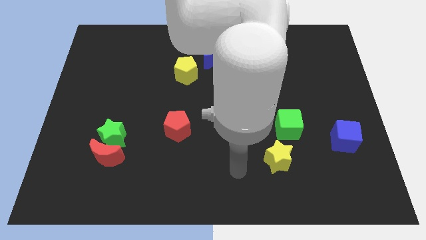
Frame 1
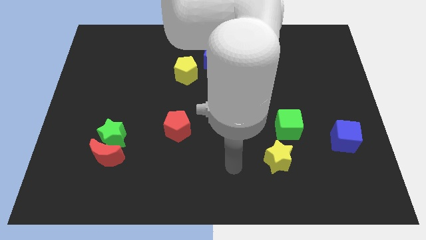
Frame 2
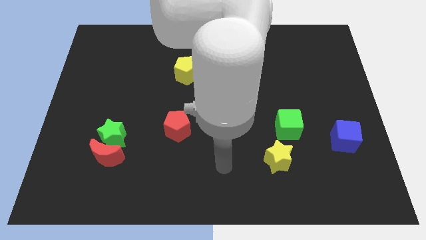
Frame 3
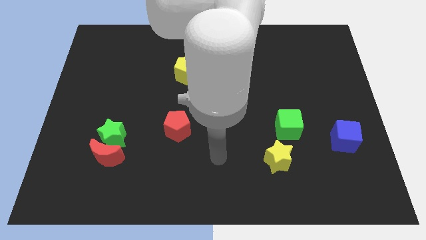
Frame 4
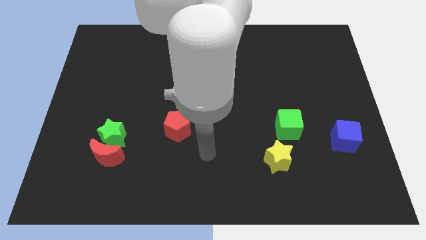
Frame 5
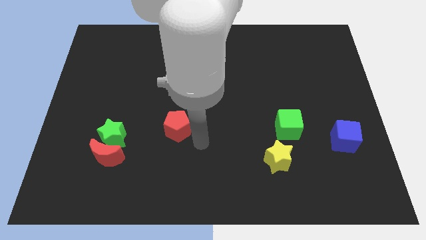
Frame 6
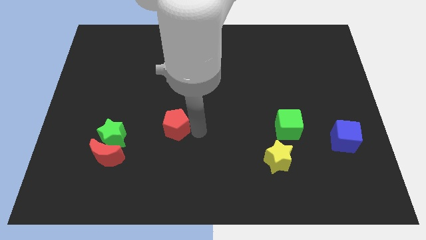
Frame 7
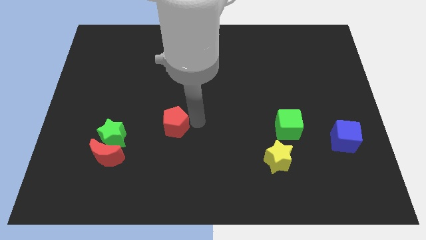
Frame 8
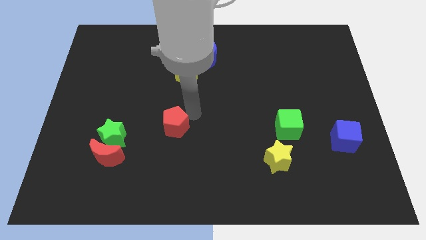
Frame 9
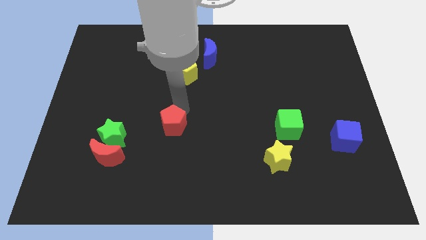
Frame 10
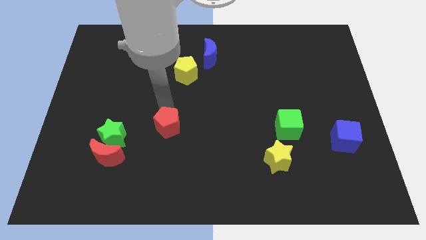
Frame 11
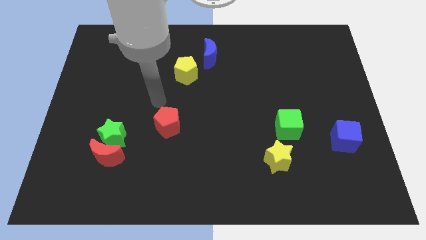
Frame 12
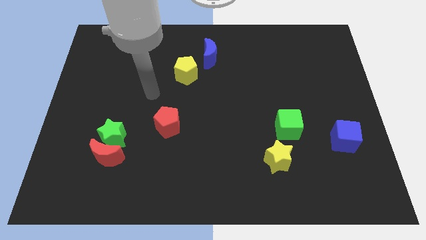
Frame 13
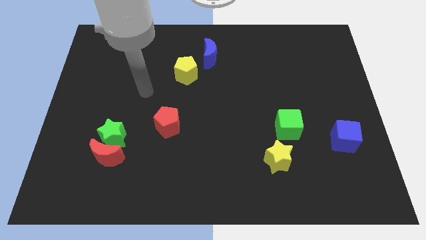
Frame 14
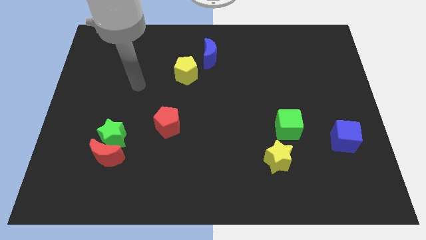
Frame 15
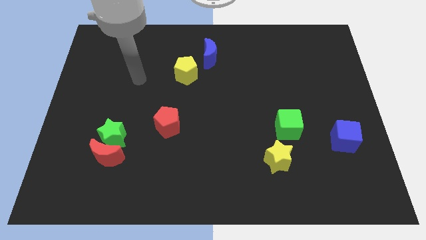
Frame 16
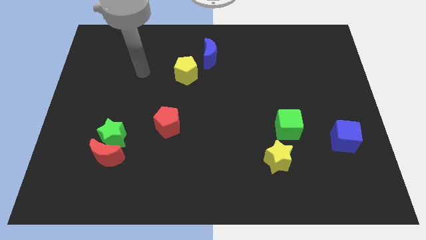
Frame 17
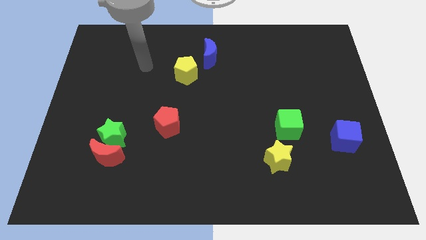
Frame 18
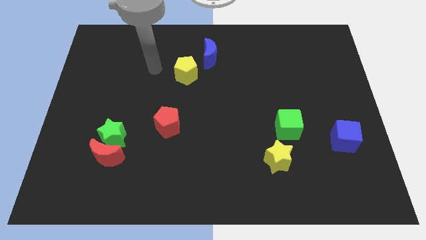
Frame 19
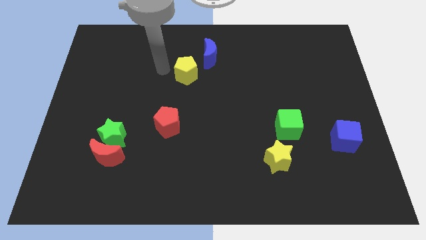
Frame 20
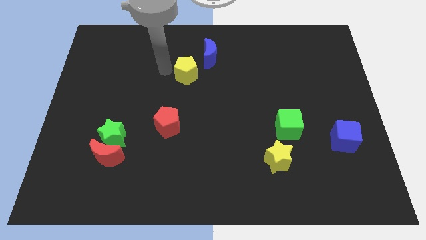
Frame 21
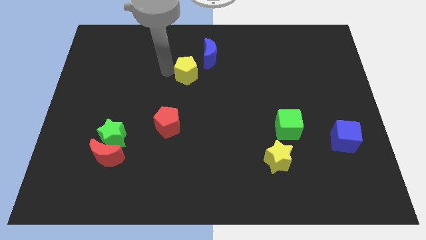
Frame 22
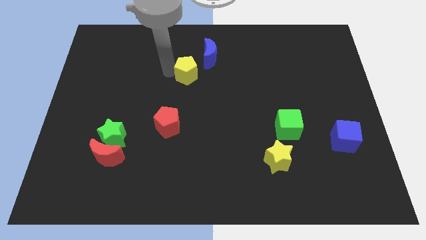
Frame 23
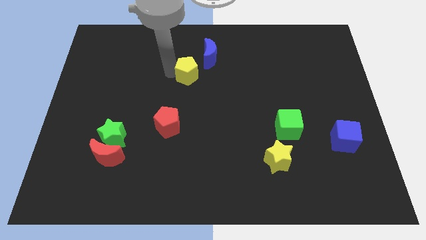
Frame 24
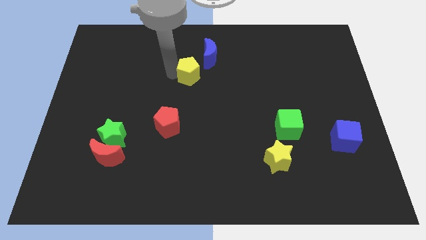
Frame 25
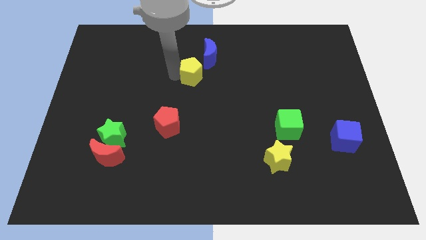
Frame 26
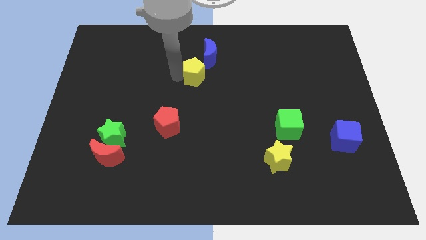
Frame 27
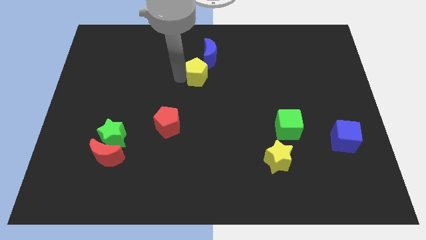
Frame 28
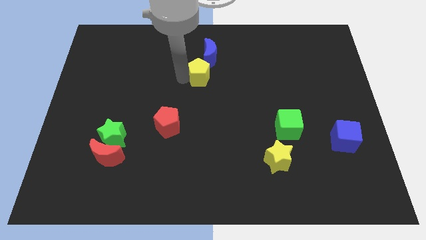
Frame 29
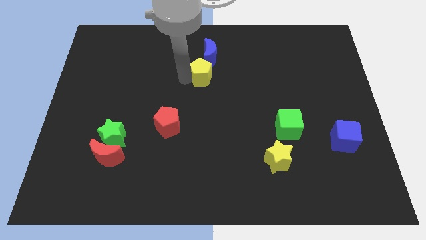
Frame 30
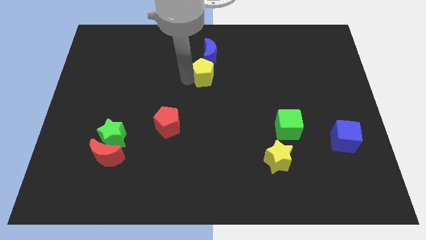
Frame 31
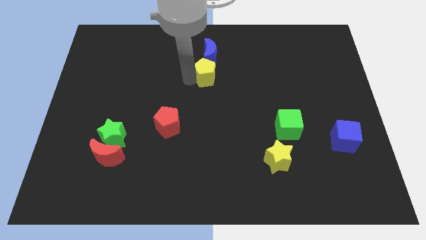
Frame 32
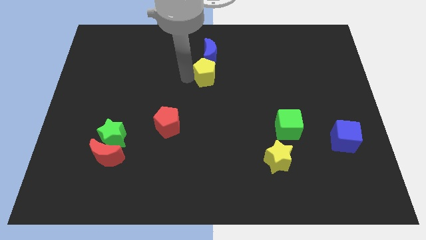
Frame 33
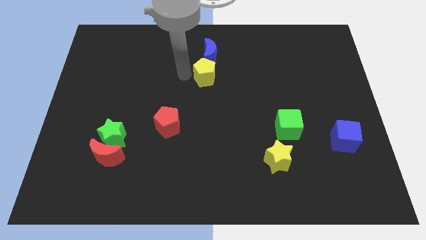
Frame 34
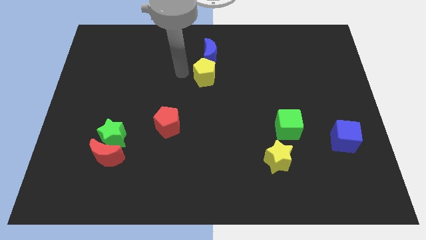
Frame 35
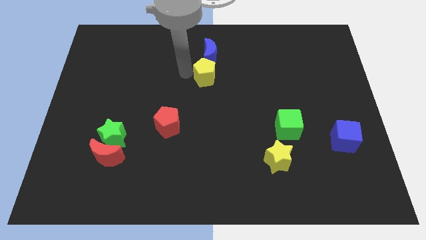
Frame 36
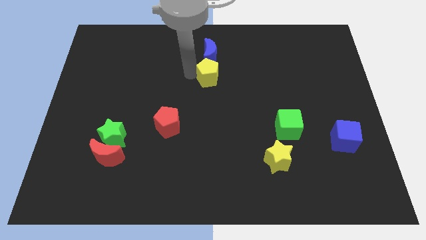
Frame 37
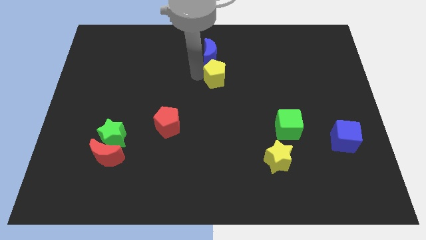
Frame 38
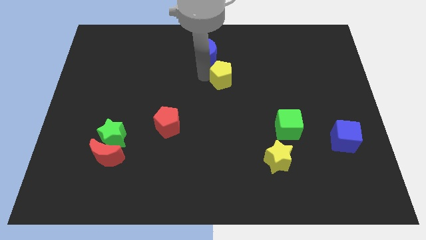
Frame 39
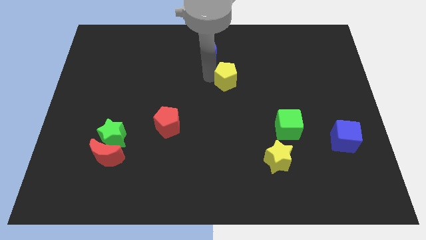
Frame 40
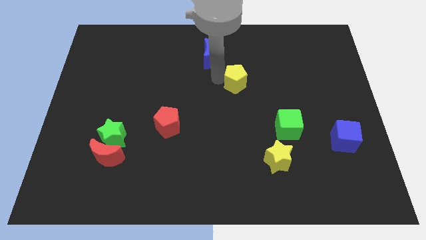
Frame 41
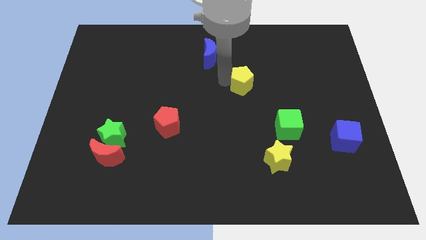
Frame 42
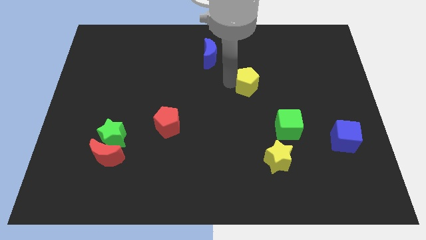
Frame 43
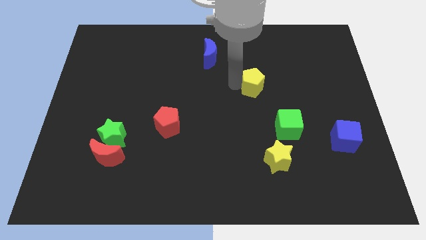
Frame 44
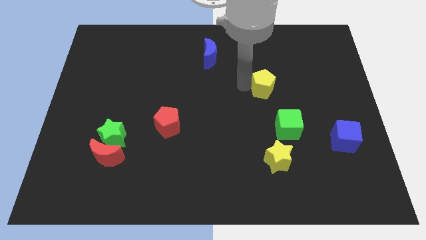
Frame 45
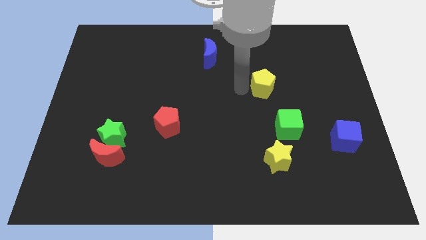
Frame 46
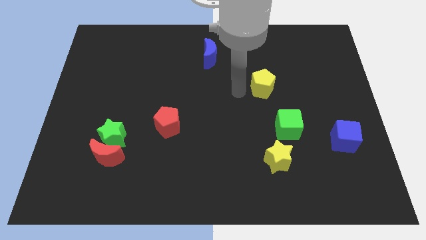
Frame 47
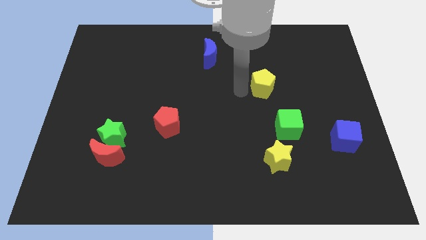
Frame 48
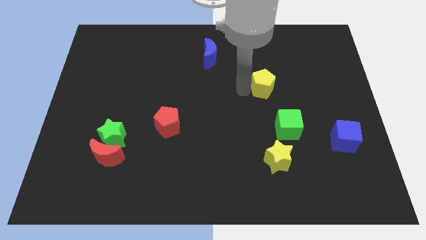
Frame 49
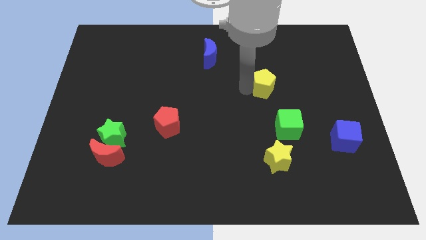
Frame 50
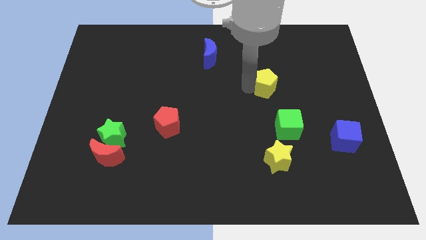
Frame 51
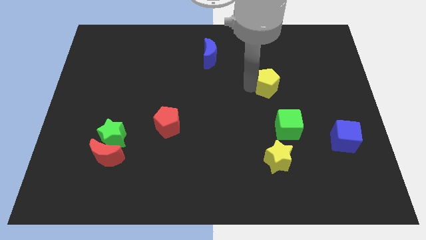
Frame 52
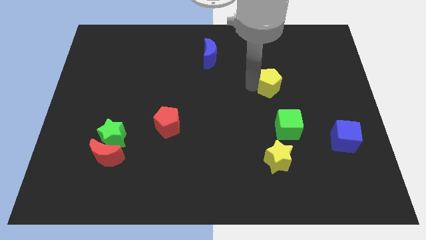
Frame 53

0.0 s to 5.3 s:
push the yellow pentagon to the right

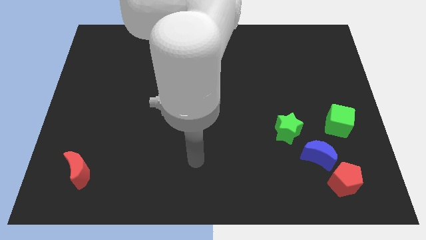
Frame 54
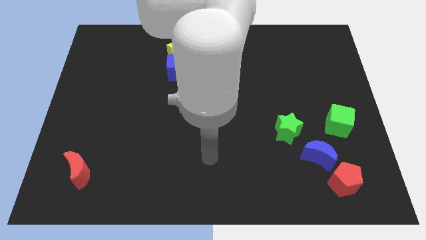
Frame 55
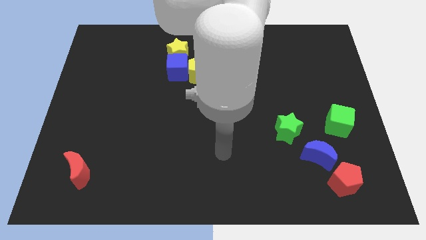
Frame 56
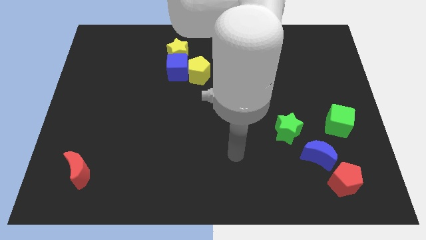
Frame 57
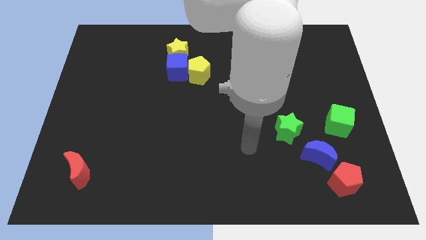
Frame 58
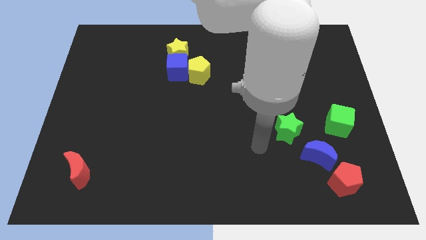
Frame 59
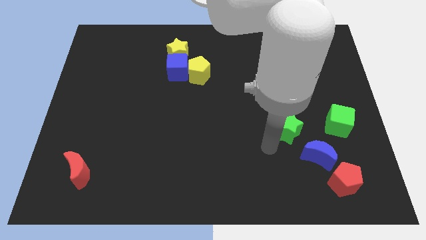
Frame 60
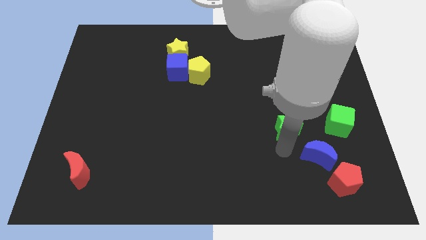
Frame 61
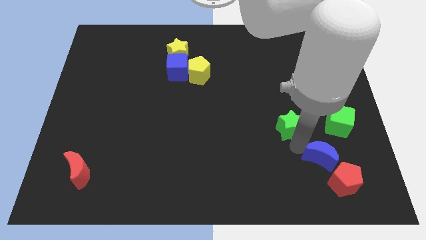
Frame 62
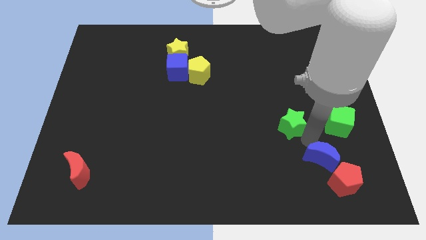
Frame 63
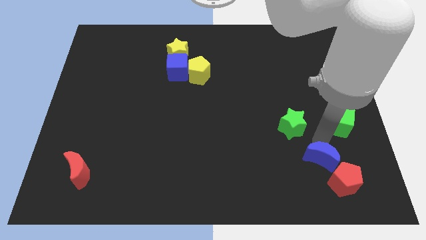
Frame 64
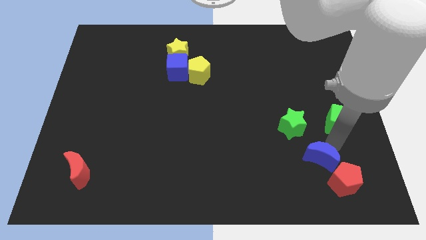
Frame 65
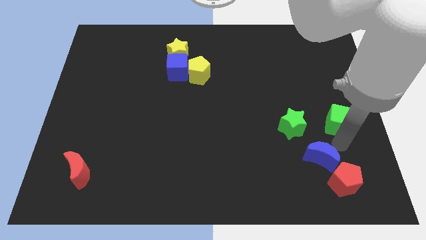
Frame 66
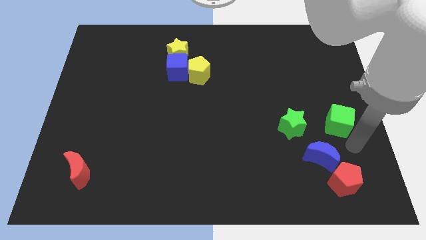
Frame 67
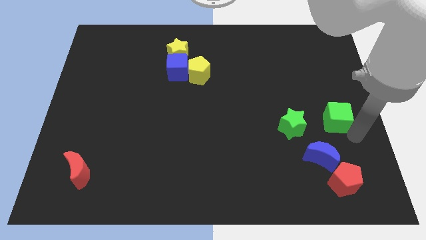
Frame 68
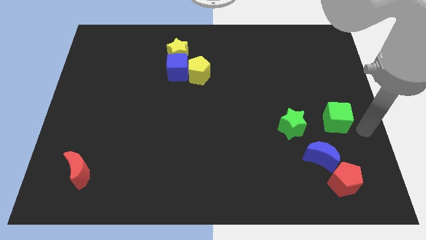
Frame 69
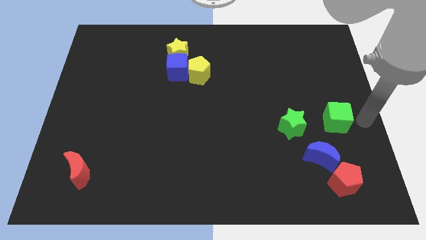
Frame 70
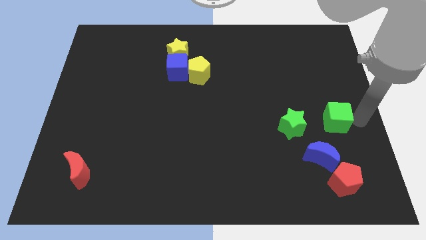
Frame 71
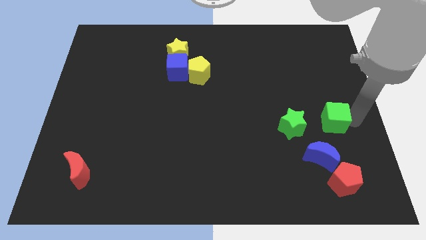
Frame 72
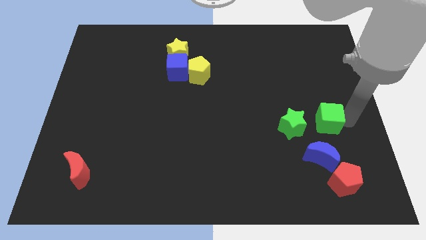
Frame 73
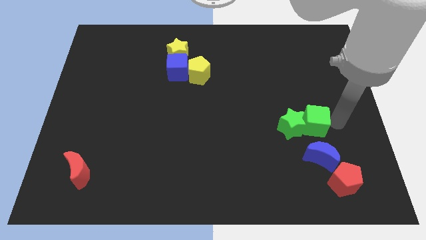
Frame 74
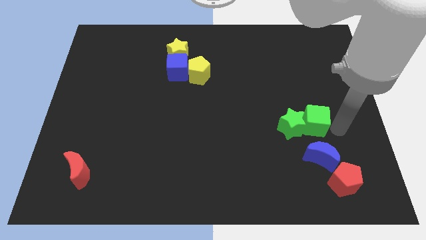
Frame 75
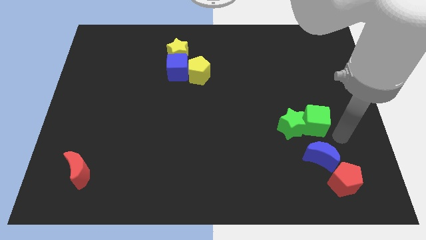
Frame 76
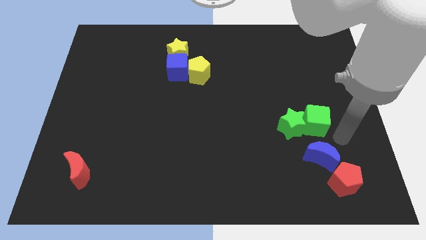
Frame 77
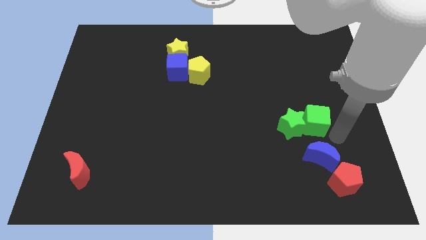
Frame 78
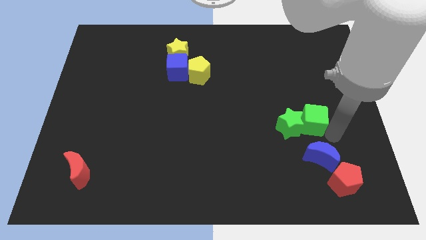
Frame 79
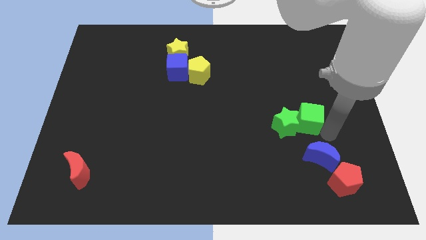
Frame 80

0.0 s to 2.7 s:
push the green cube a little to the left

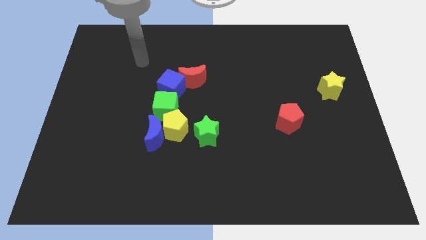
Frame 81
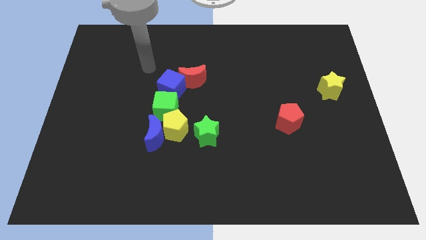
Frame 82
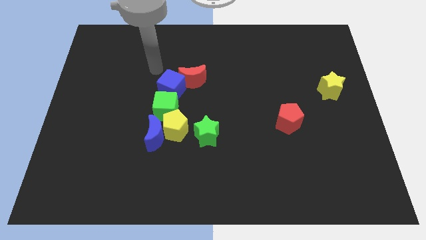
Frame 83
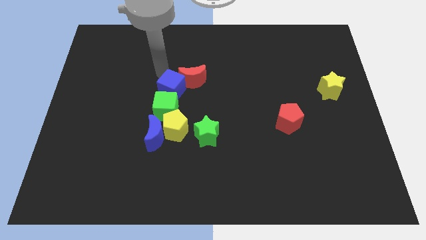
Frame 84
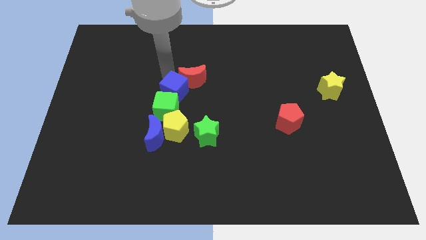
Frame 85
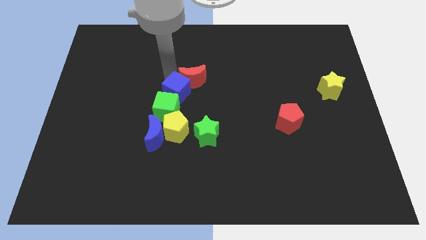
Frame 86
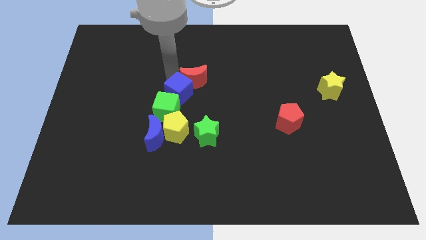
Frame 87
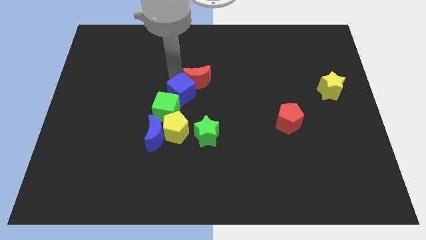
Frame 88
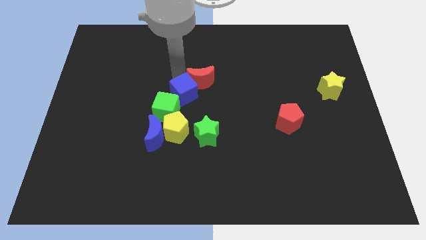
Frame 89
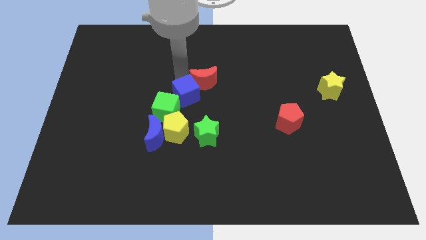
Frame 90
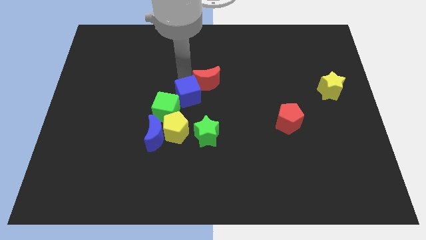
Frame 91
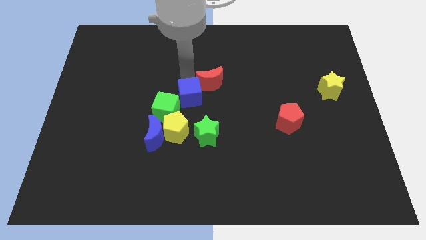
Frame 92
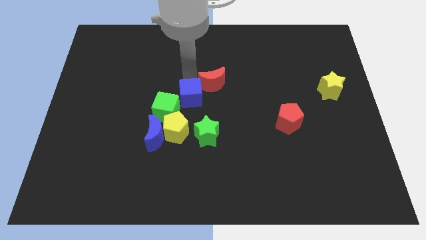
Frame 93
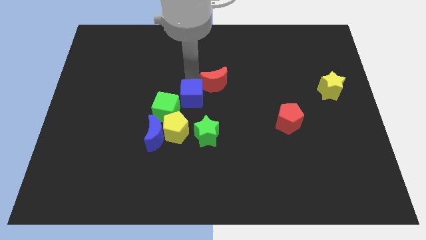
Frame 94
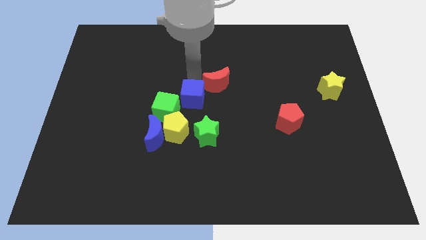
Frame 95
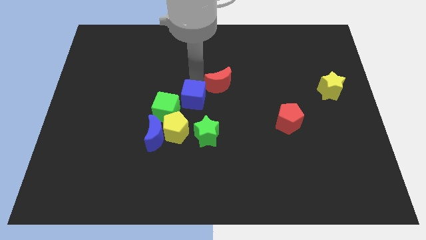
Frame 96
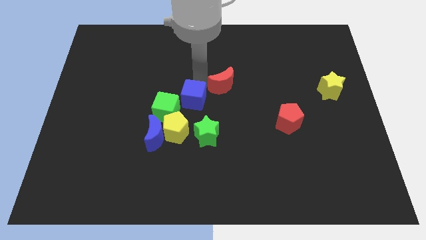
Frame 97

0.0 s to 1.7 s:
move the red moon a little bit right
